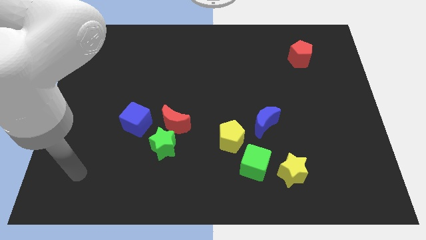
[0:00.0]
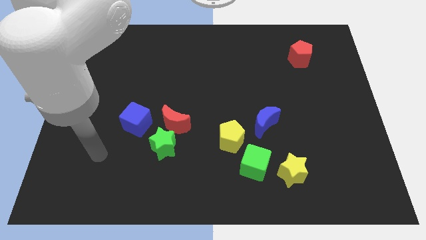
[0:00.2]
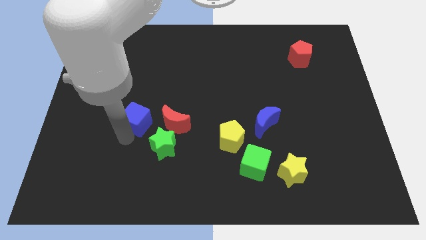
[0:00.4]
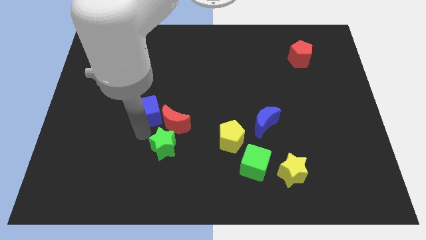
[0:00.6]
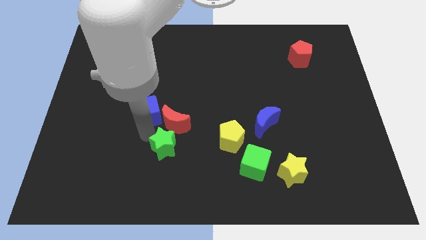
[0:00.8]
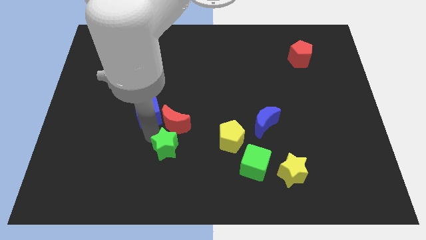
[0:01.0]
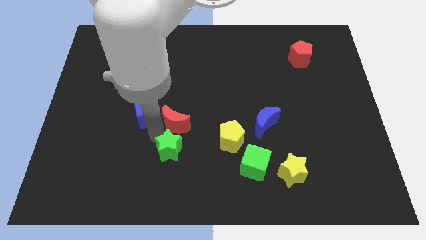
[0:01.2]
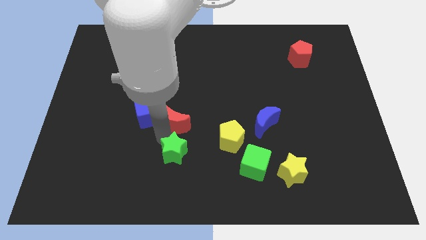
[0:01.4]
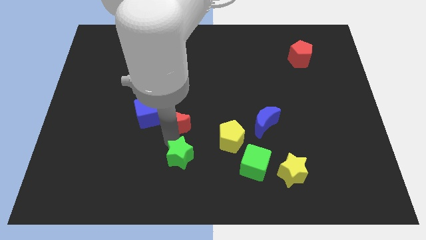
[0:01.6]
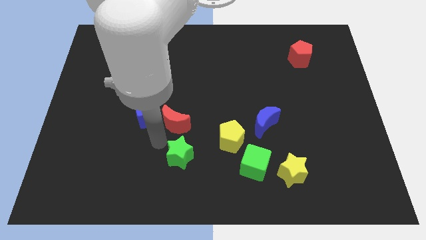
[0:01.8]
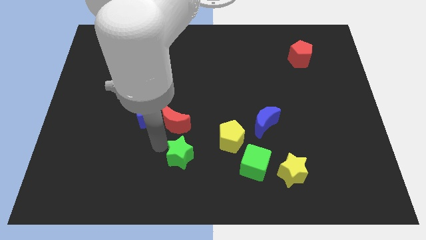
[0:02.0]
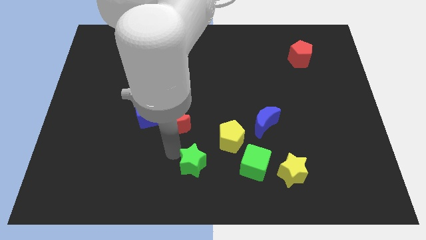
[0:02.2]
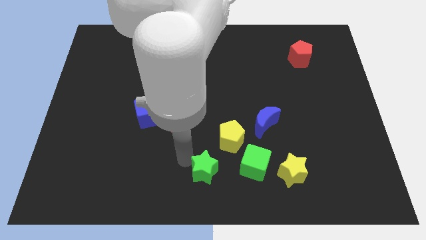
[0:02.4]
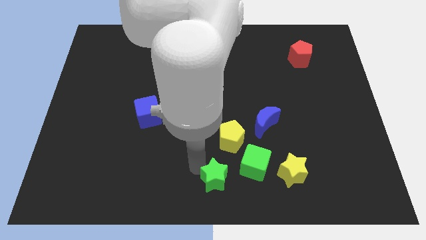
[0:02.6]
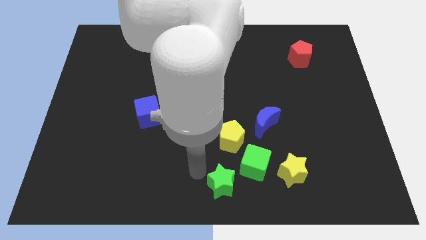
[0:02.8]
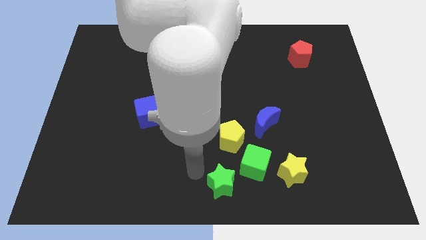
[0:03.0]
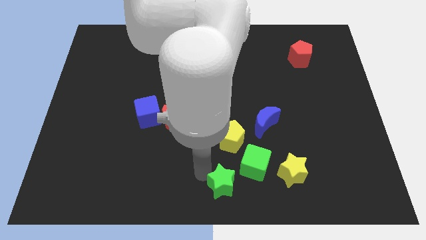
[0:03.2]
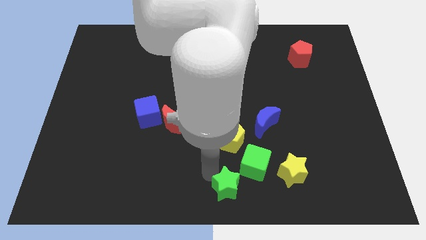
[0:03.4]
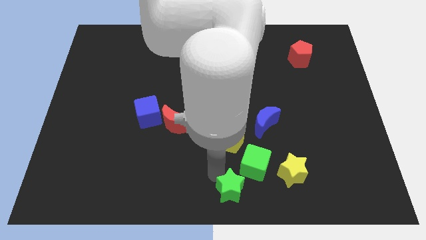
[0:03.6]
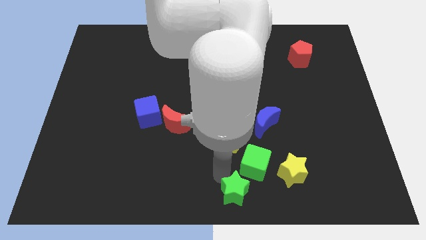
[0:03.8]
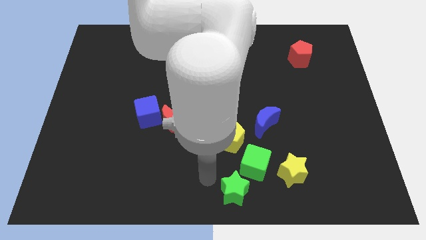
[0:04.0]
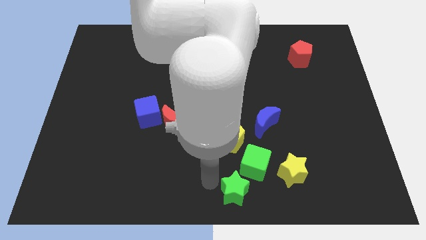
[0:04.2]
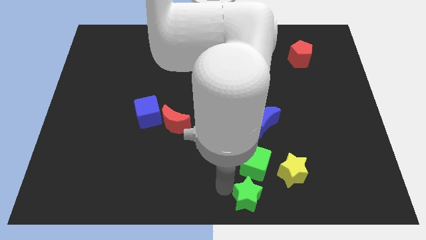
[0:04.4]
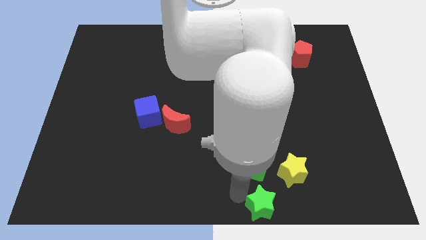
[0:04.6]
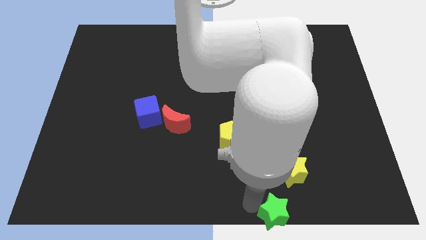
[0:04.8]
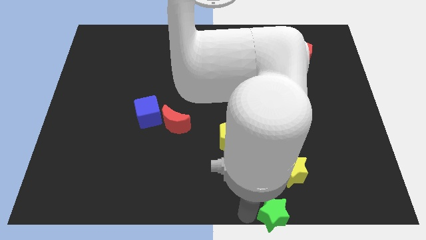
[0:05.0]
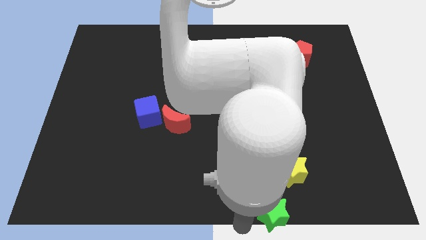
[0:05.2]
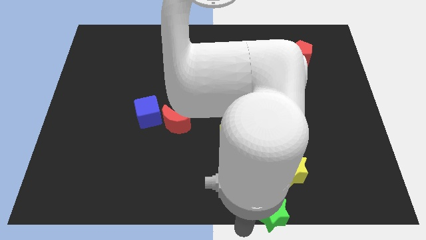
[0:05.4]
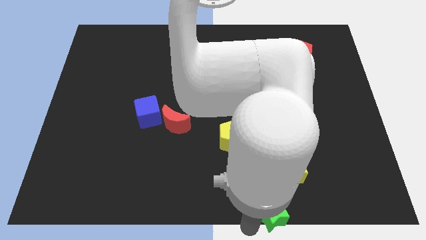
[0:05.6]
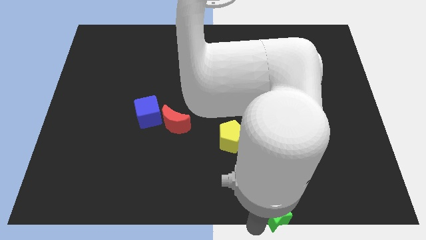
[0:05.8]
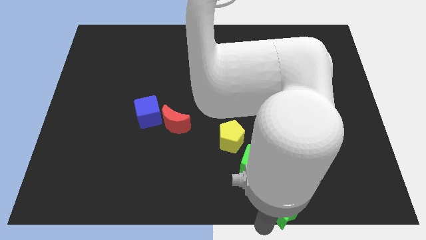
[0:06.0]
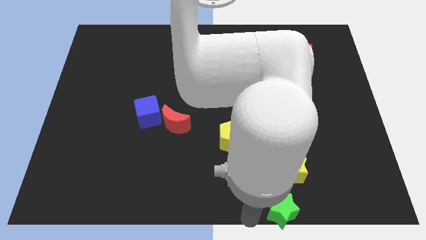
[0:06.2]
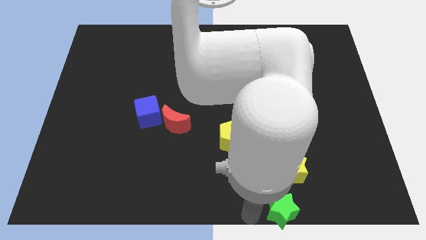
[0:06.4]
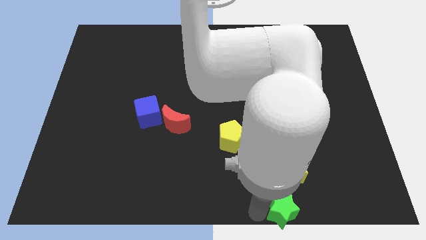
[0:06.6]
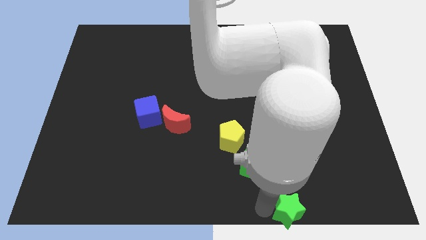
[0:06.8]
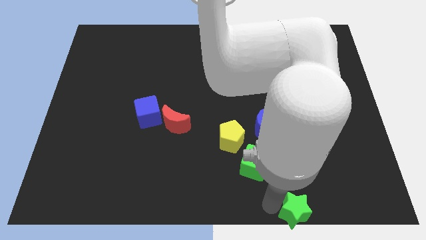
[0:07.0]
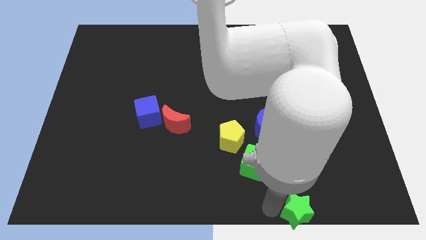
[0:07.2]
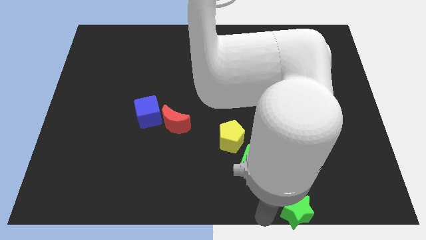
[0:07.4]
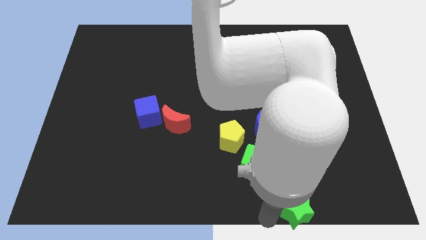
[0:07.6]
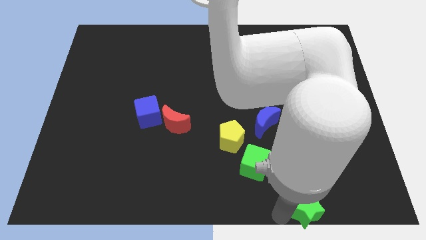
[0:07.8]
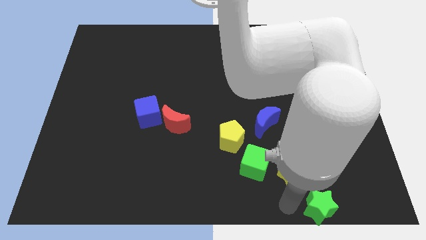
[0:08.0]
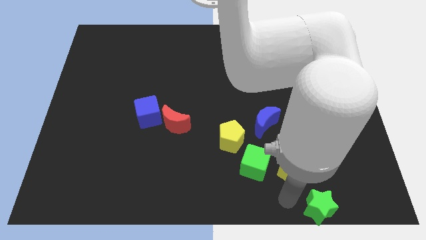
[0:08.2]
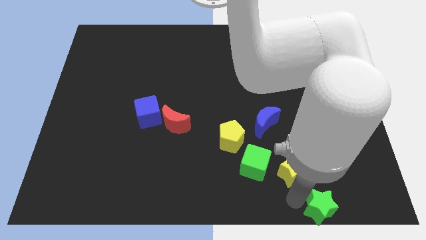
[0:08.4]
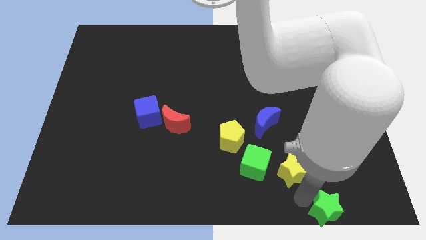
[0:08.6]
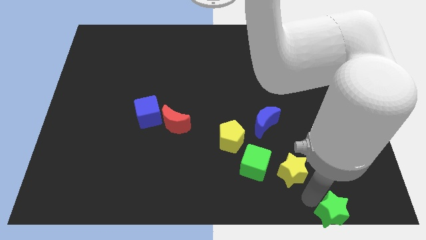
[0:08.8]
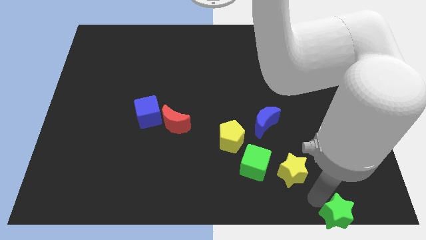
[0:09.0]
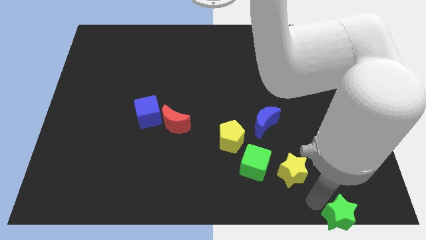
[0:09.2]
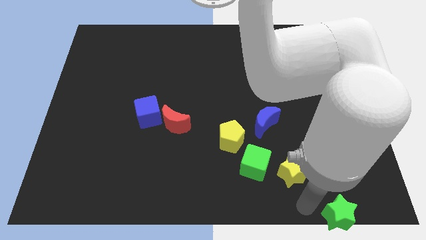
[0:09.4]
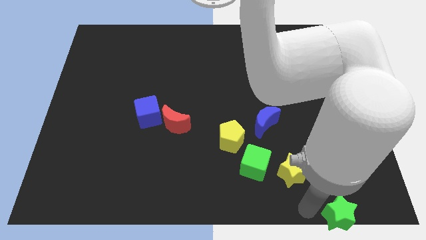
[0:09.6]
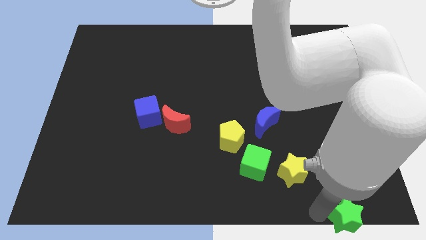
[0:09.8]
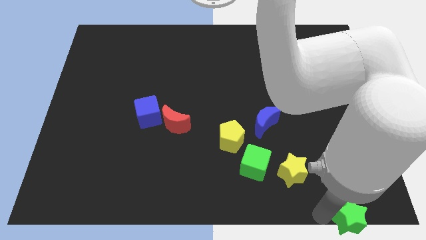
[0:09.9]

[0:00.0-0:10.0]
put the green star to the bottom right of the board

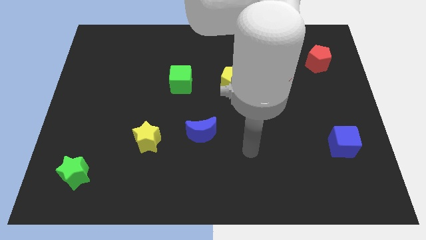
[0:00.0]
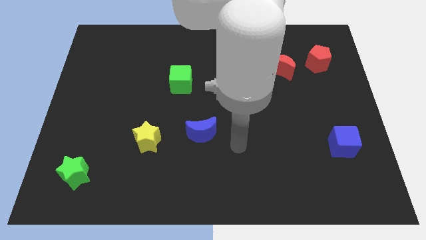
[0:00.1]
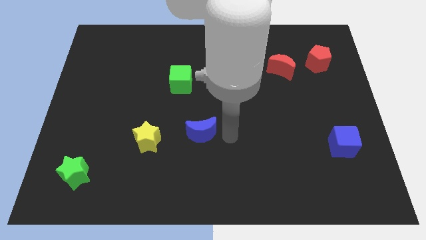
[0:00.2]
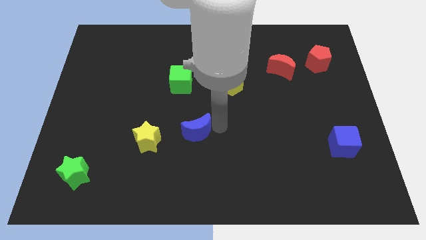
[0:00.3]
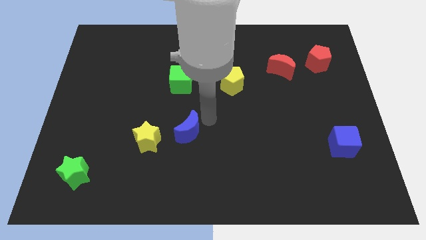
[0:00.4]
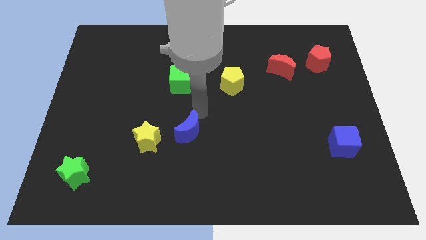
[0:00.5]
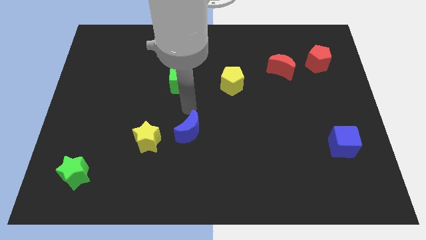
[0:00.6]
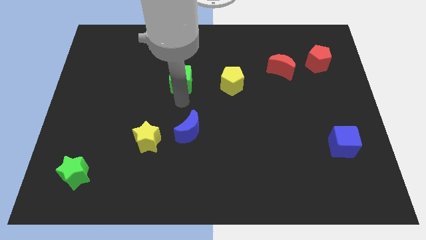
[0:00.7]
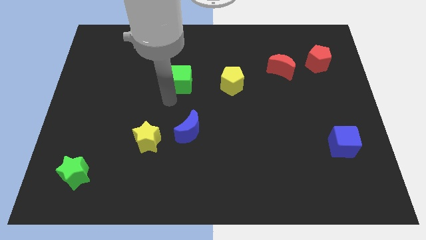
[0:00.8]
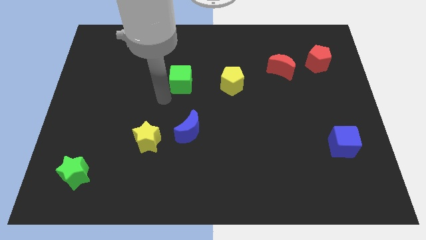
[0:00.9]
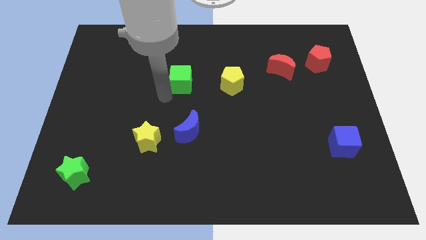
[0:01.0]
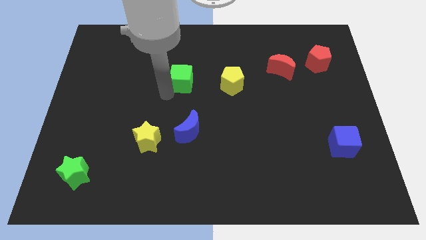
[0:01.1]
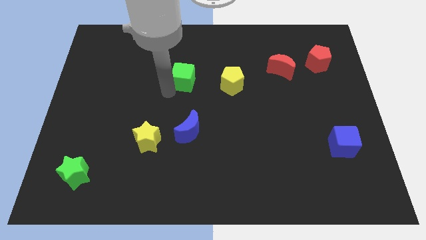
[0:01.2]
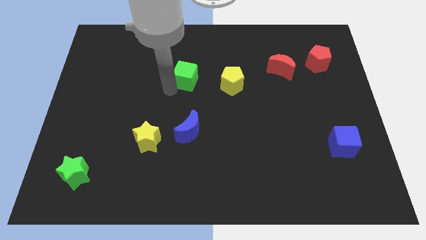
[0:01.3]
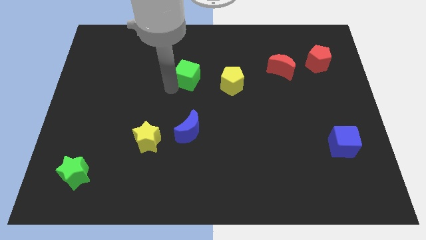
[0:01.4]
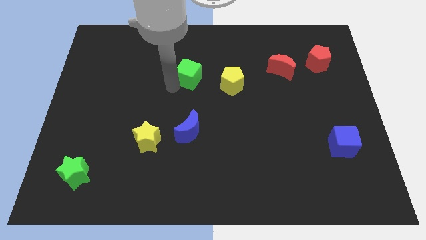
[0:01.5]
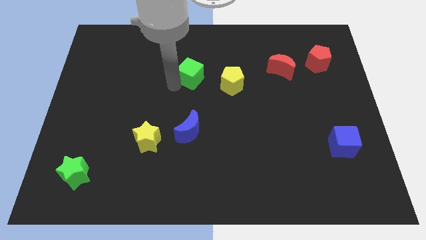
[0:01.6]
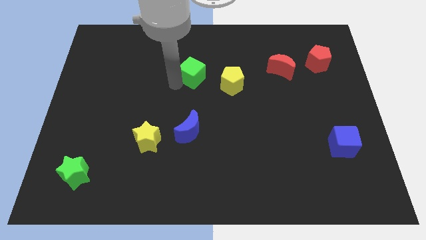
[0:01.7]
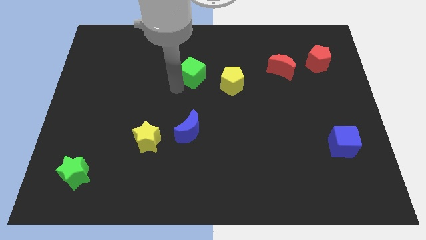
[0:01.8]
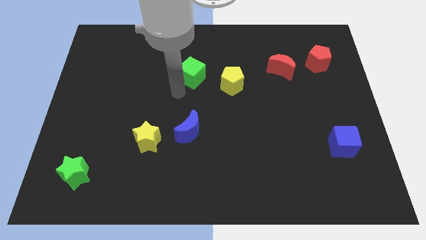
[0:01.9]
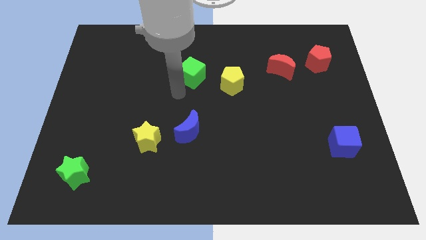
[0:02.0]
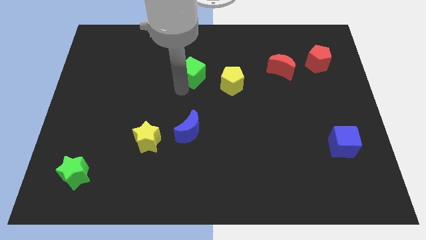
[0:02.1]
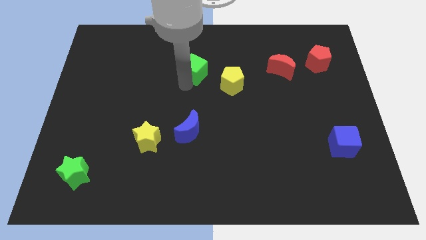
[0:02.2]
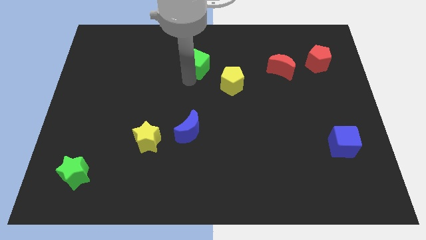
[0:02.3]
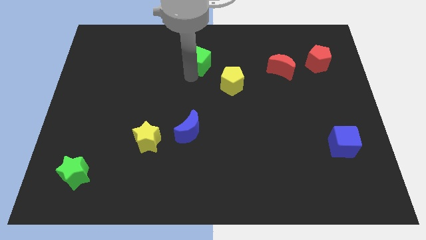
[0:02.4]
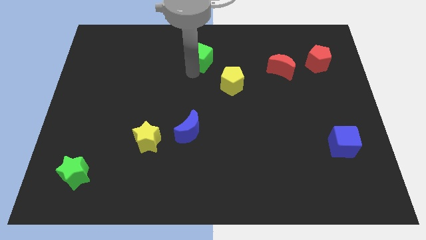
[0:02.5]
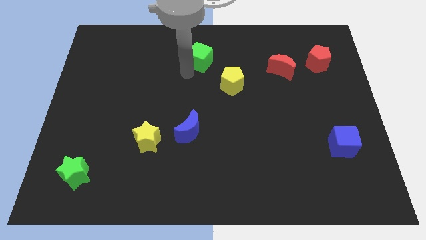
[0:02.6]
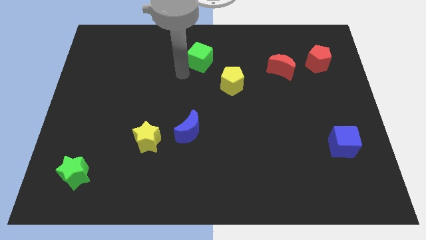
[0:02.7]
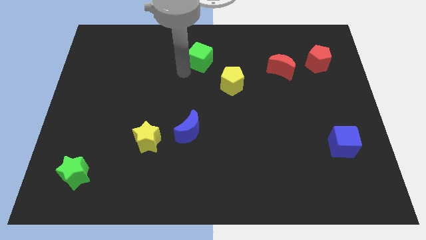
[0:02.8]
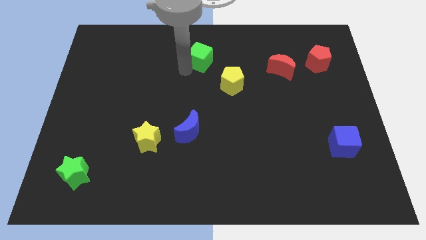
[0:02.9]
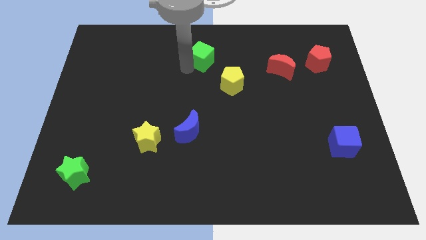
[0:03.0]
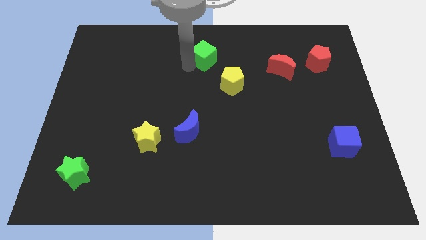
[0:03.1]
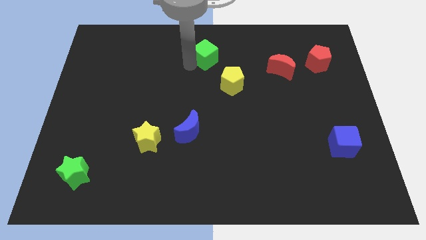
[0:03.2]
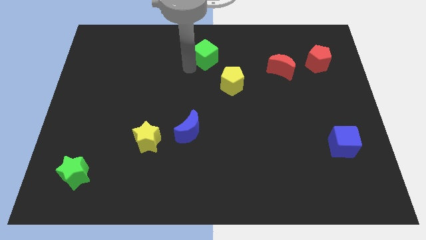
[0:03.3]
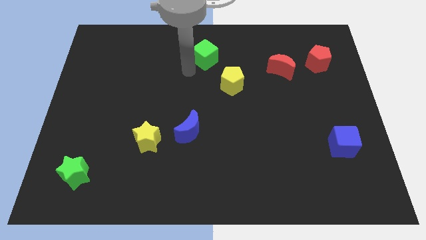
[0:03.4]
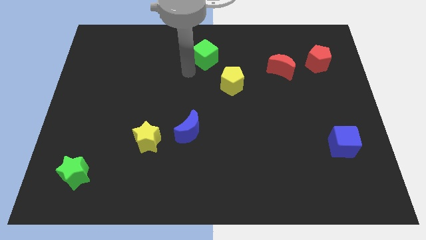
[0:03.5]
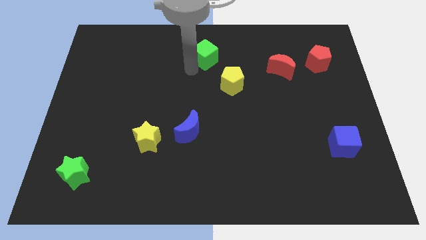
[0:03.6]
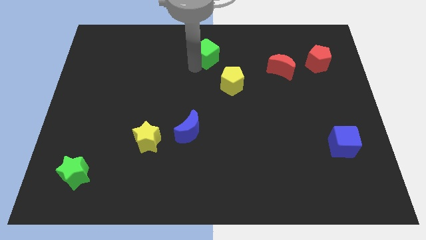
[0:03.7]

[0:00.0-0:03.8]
put the green cube to the top
